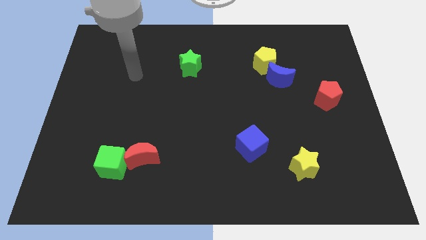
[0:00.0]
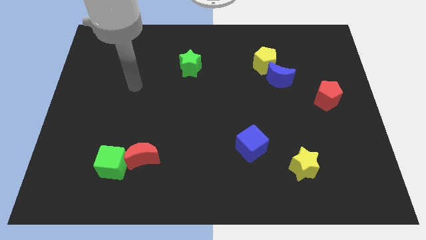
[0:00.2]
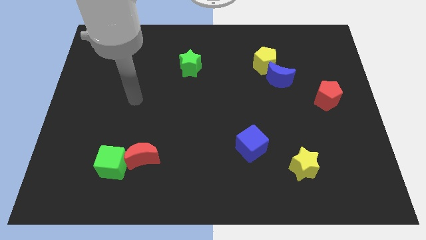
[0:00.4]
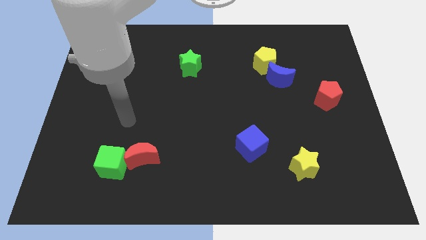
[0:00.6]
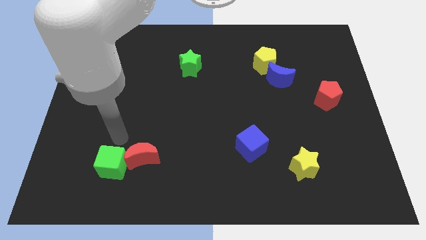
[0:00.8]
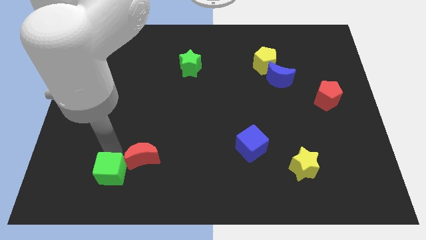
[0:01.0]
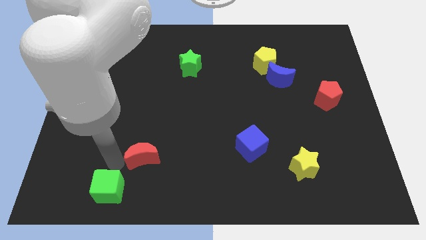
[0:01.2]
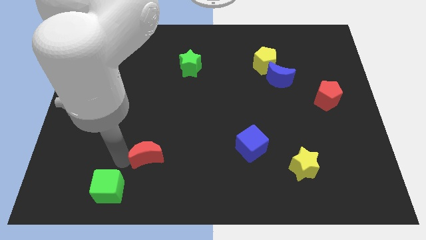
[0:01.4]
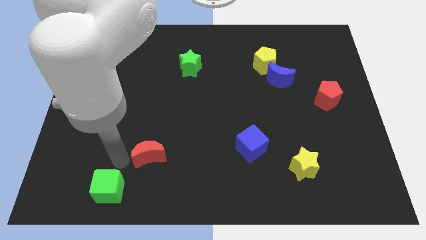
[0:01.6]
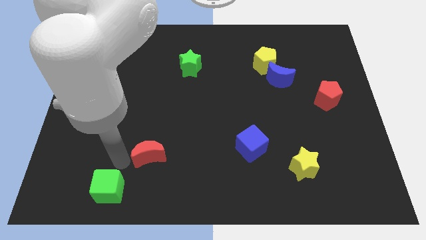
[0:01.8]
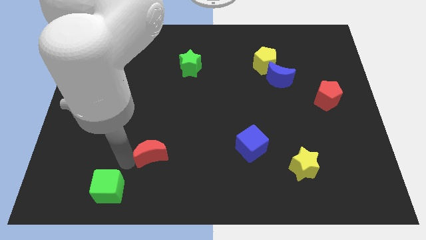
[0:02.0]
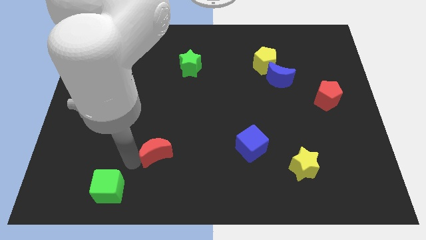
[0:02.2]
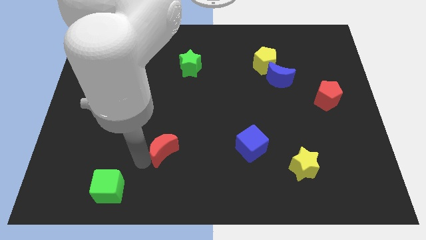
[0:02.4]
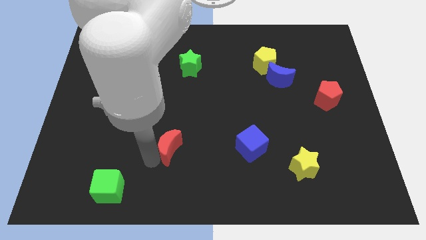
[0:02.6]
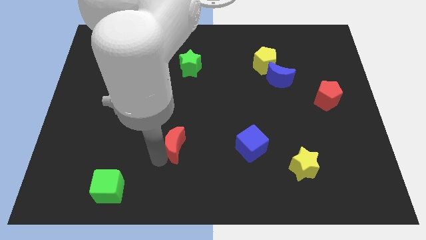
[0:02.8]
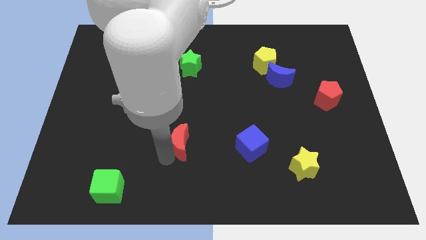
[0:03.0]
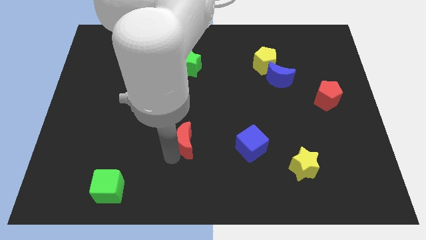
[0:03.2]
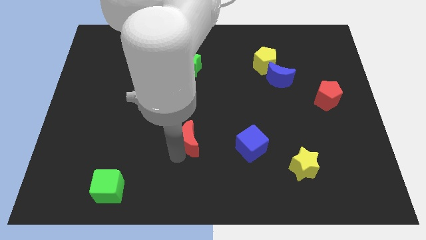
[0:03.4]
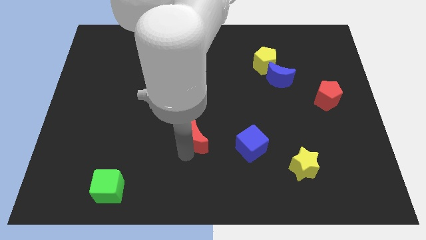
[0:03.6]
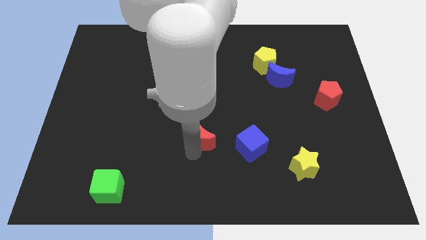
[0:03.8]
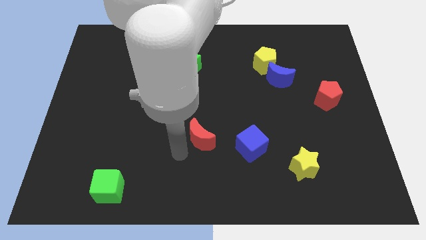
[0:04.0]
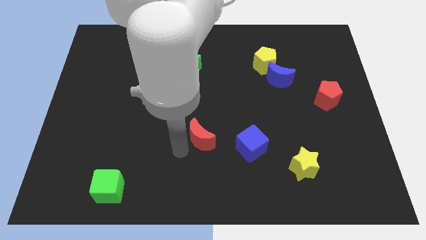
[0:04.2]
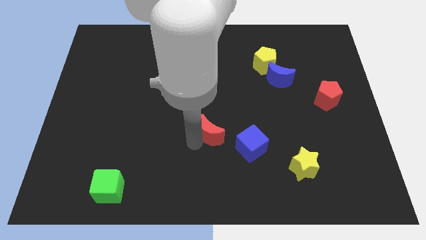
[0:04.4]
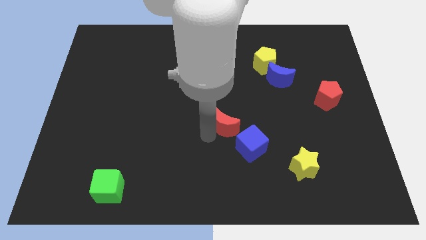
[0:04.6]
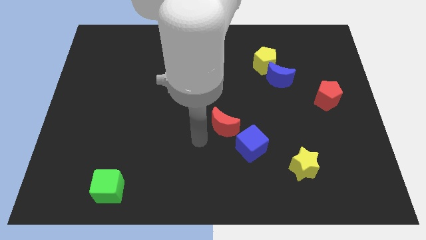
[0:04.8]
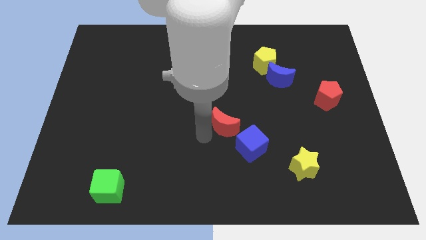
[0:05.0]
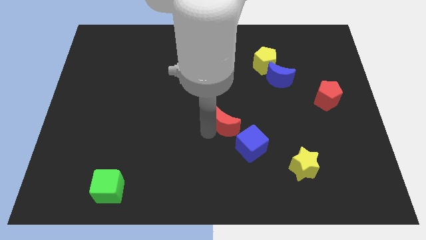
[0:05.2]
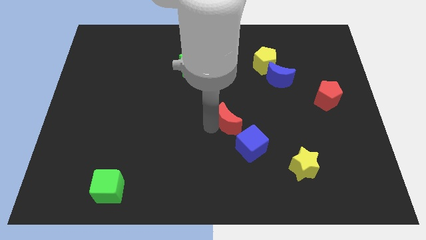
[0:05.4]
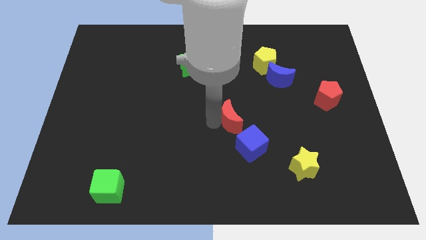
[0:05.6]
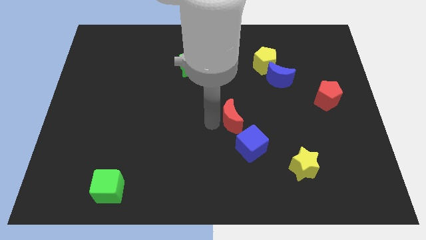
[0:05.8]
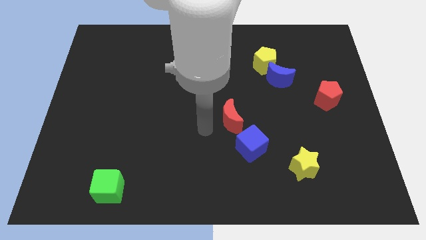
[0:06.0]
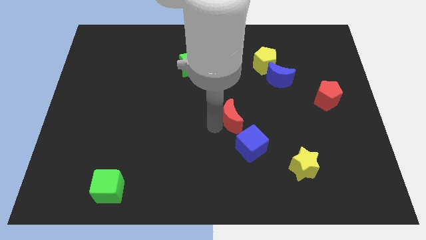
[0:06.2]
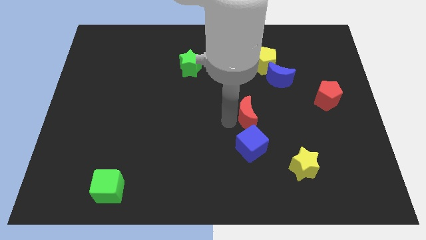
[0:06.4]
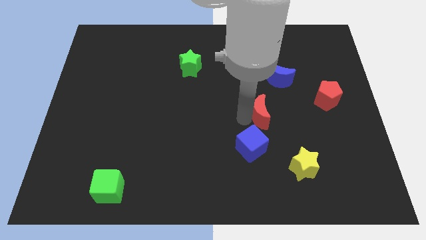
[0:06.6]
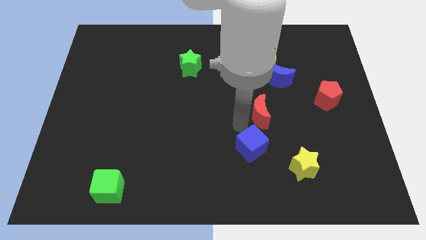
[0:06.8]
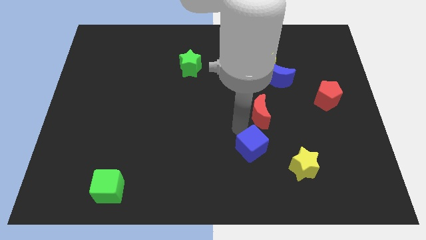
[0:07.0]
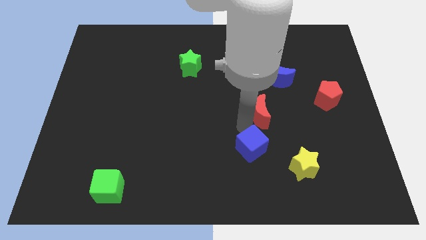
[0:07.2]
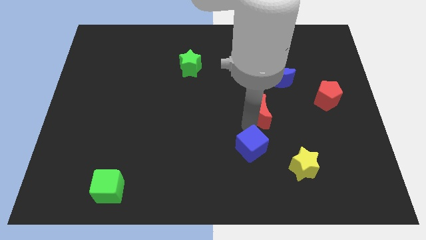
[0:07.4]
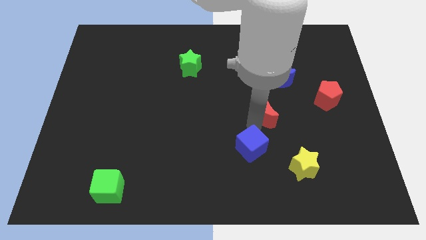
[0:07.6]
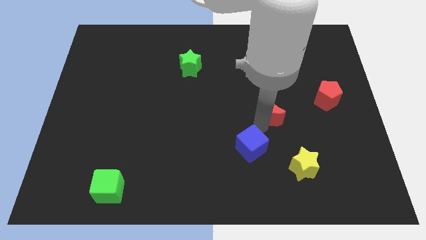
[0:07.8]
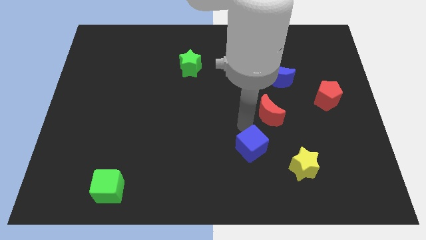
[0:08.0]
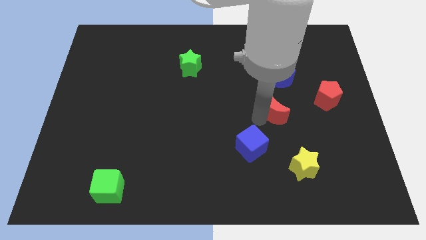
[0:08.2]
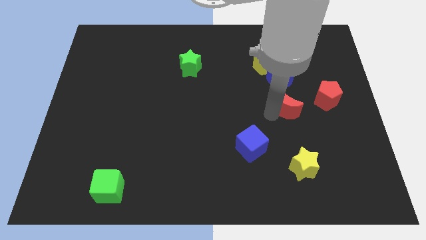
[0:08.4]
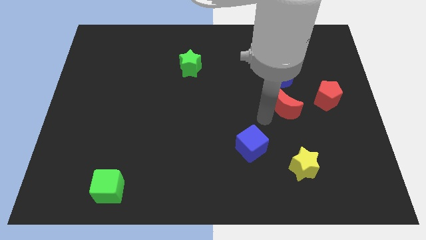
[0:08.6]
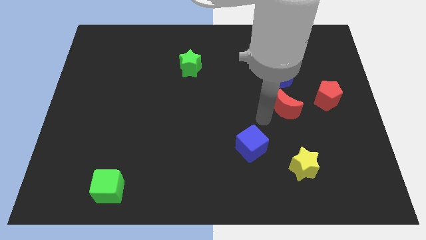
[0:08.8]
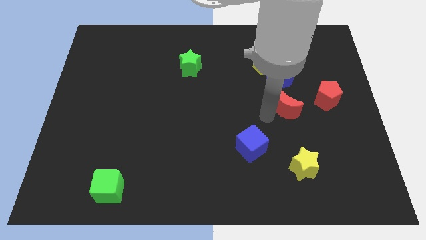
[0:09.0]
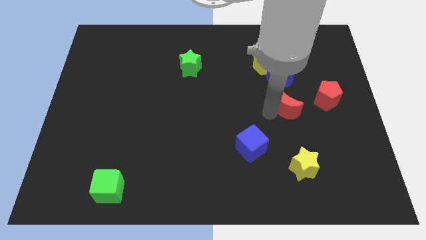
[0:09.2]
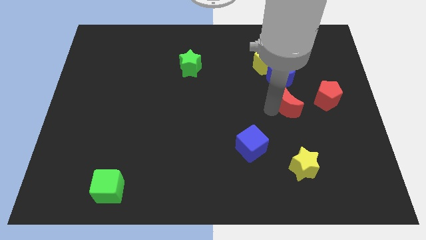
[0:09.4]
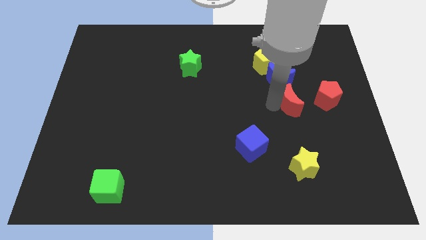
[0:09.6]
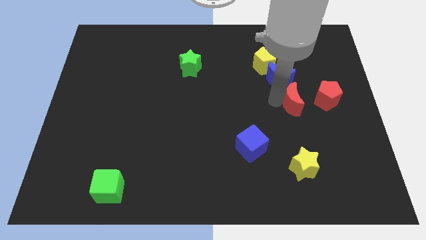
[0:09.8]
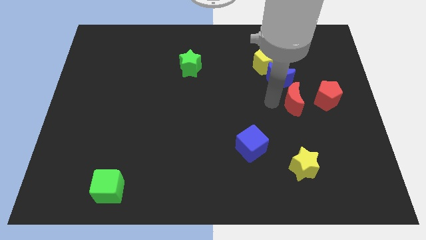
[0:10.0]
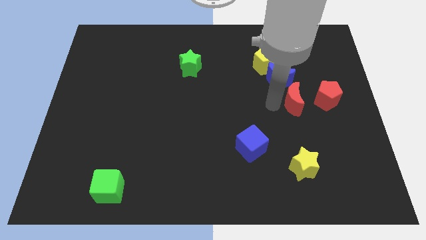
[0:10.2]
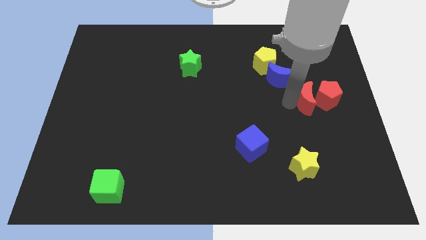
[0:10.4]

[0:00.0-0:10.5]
put the red moon next to the red pentagon

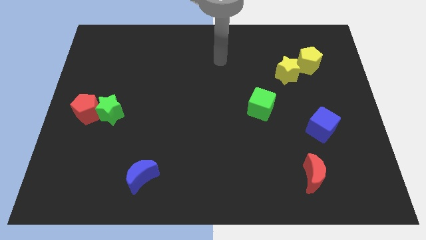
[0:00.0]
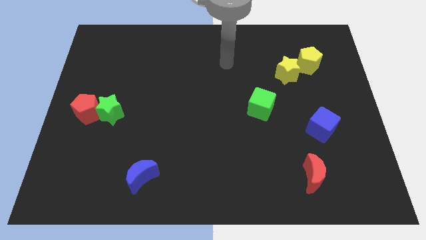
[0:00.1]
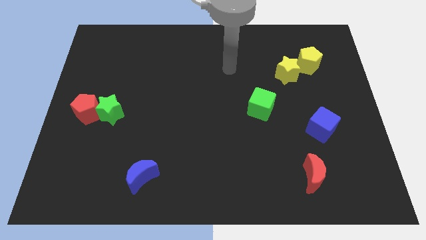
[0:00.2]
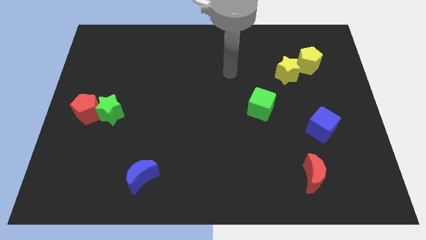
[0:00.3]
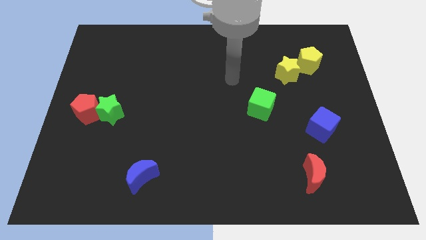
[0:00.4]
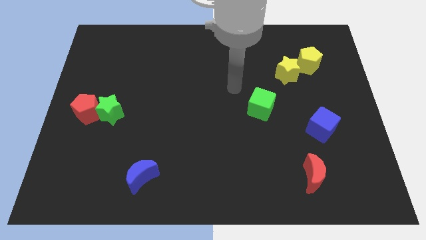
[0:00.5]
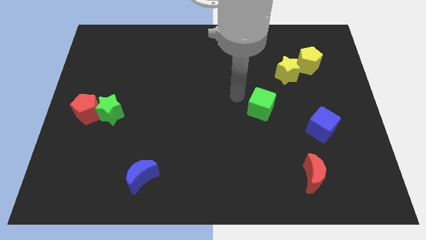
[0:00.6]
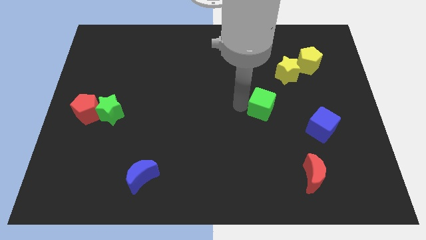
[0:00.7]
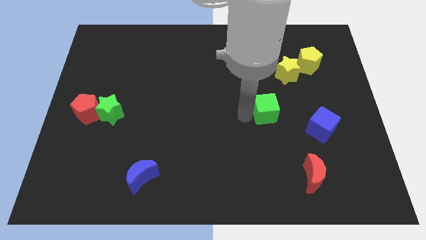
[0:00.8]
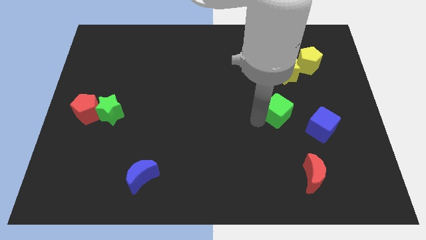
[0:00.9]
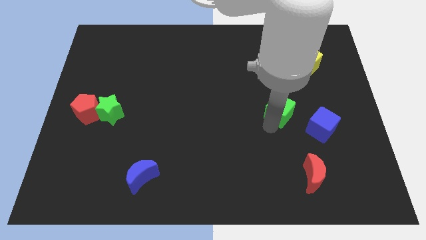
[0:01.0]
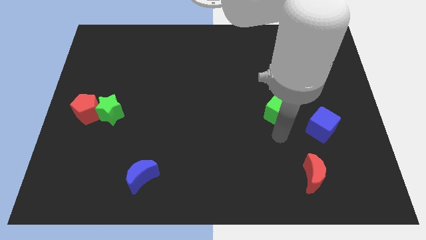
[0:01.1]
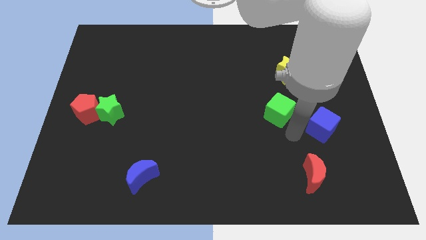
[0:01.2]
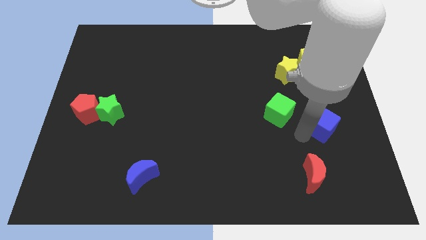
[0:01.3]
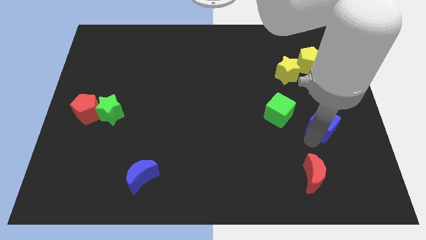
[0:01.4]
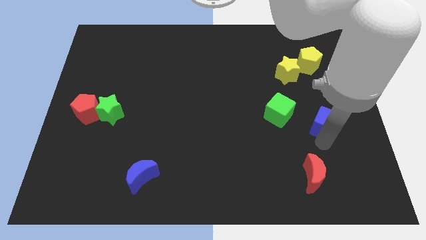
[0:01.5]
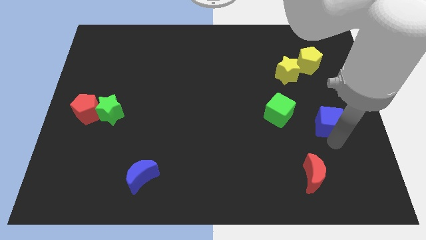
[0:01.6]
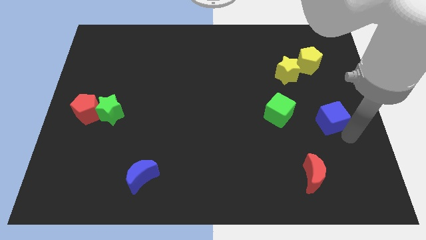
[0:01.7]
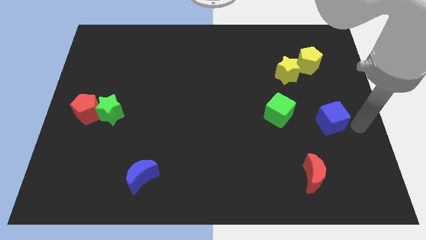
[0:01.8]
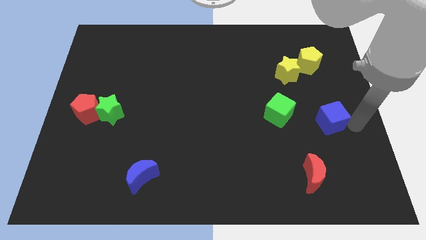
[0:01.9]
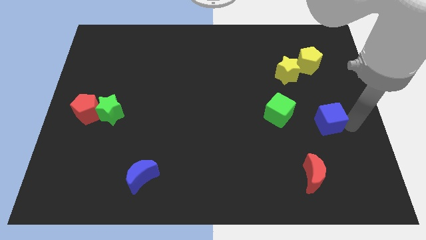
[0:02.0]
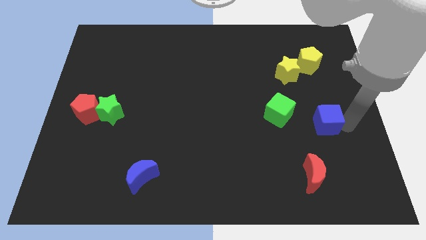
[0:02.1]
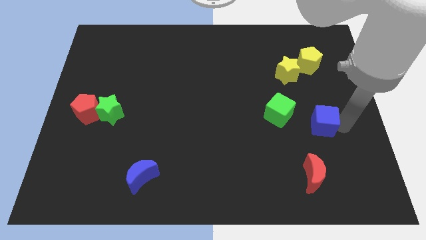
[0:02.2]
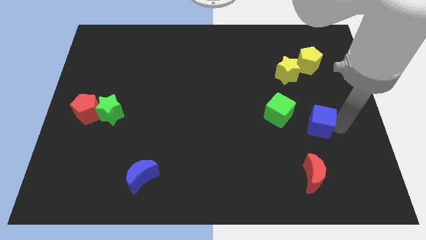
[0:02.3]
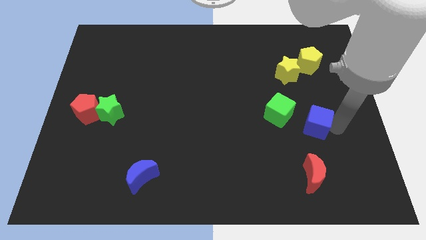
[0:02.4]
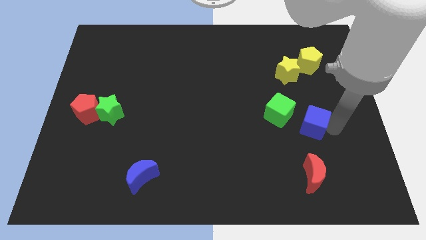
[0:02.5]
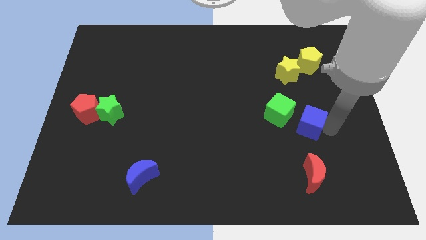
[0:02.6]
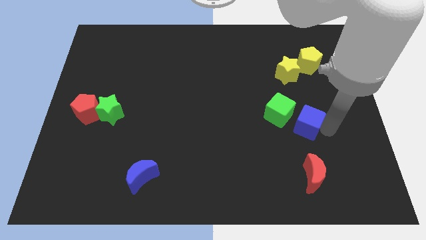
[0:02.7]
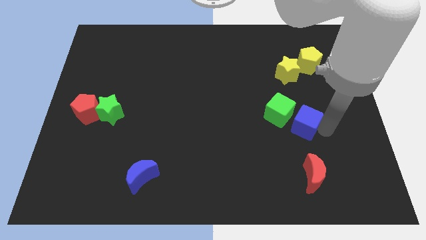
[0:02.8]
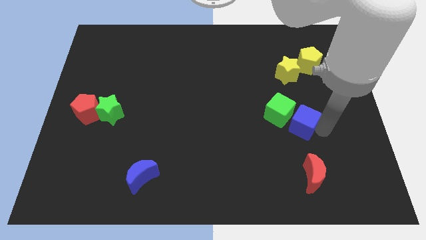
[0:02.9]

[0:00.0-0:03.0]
put the blue cube next to the green cube
